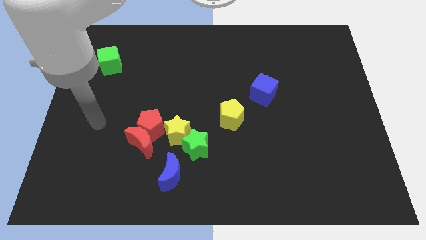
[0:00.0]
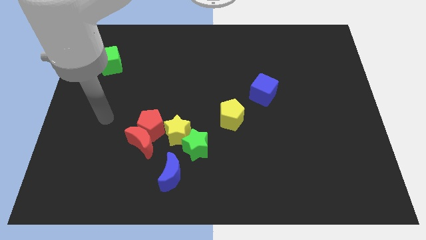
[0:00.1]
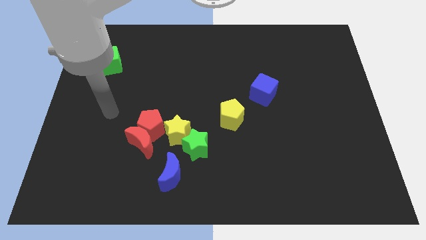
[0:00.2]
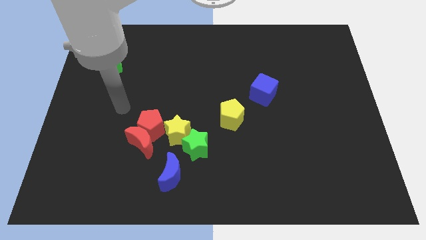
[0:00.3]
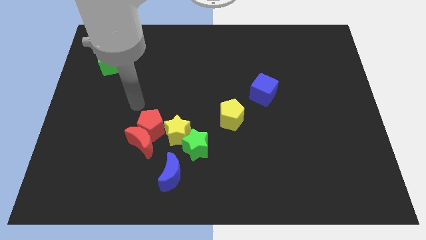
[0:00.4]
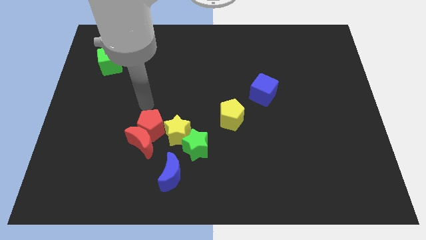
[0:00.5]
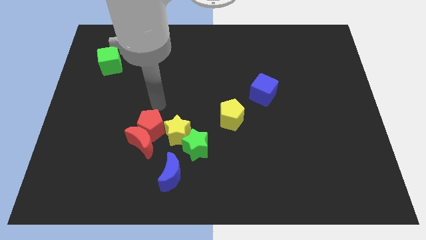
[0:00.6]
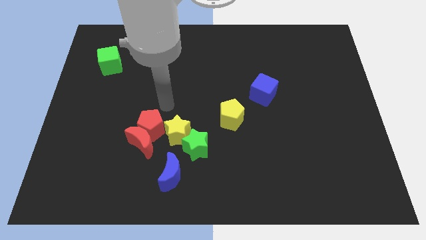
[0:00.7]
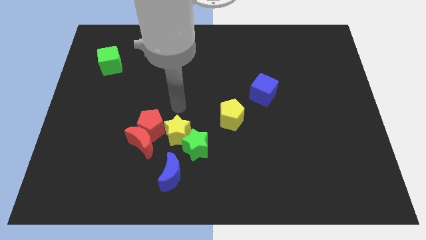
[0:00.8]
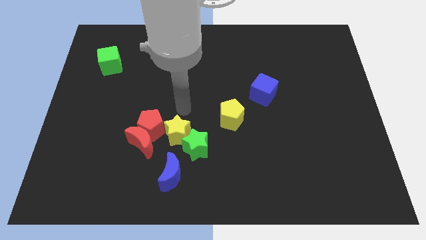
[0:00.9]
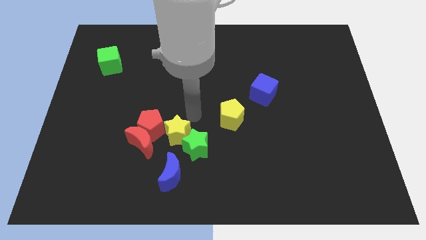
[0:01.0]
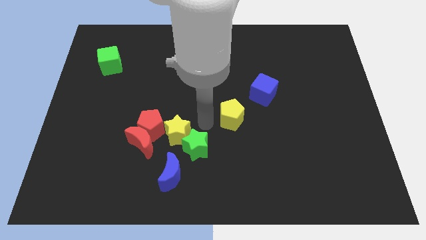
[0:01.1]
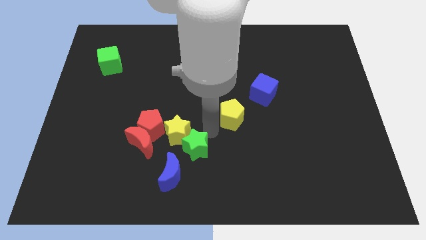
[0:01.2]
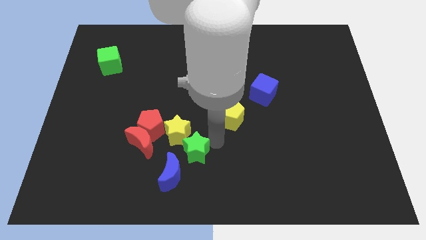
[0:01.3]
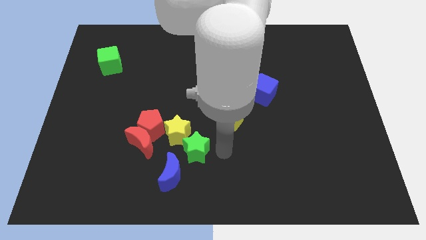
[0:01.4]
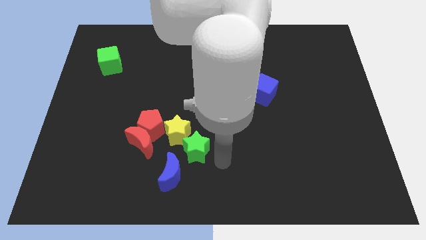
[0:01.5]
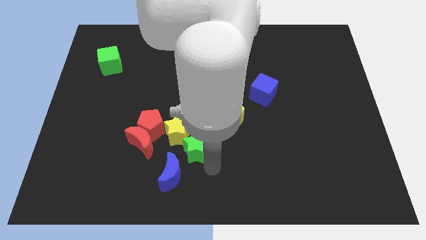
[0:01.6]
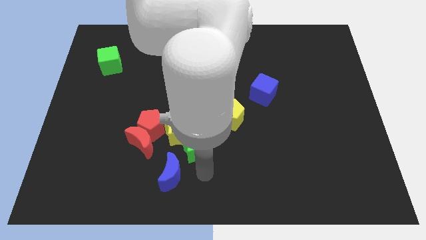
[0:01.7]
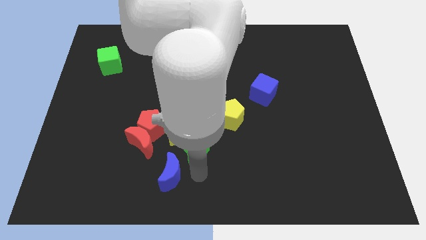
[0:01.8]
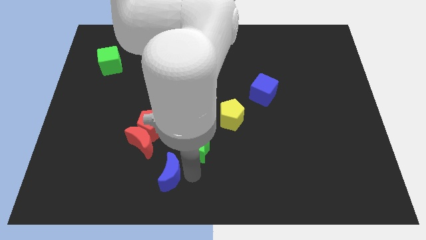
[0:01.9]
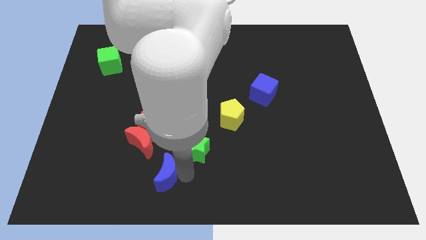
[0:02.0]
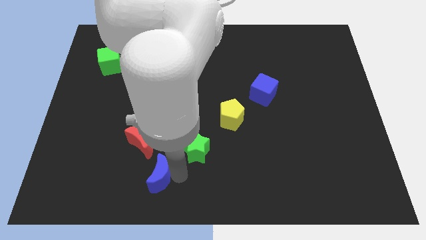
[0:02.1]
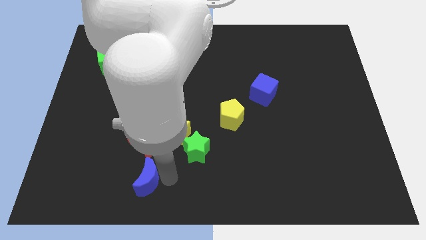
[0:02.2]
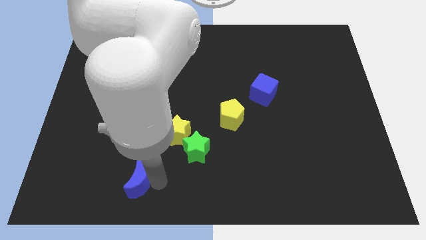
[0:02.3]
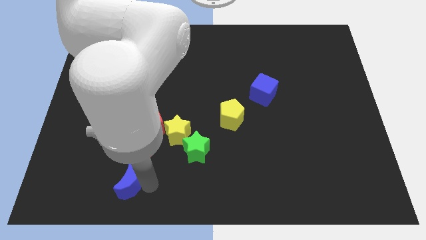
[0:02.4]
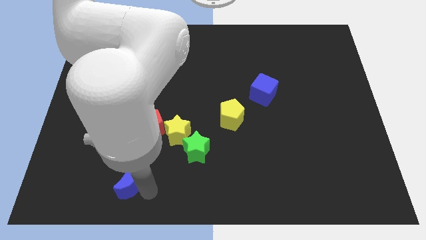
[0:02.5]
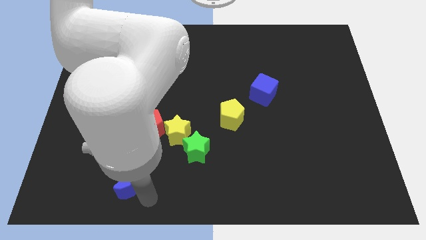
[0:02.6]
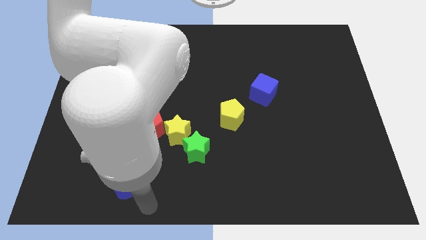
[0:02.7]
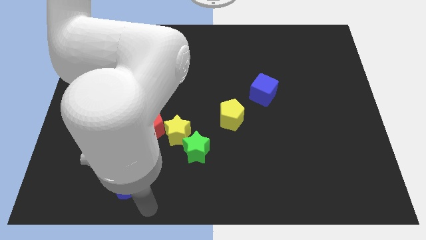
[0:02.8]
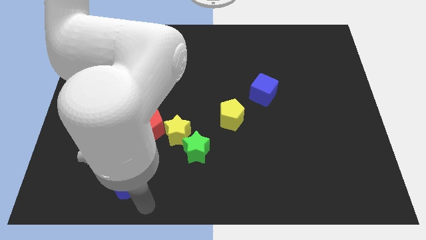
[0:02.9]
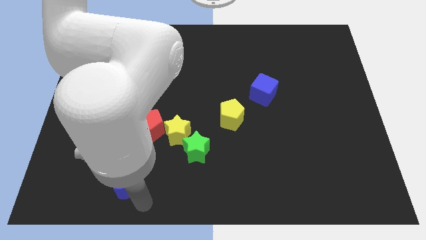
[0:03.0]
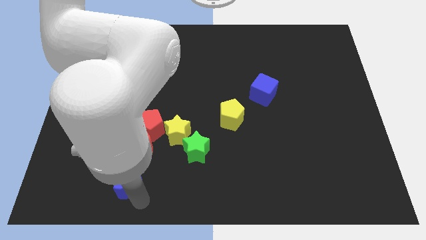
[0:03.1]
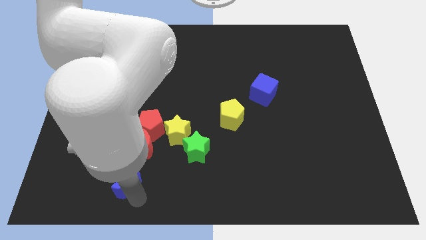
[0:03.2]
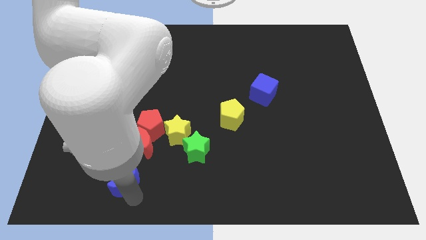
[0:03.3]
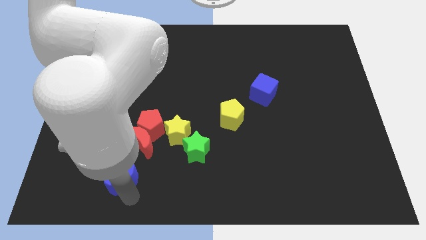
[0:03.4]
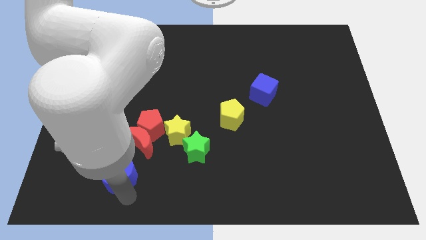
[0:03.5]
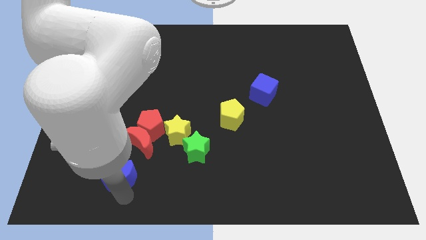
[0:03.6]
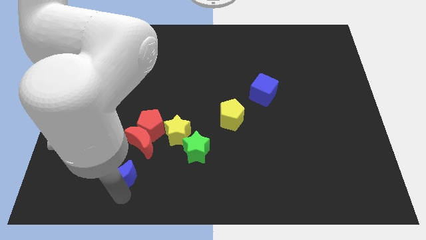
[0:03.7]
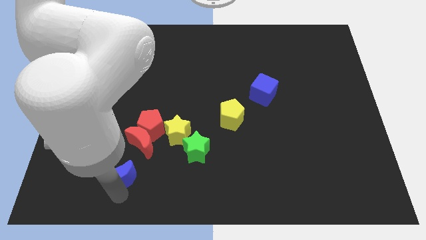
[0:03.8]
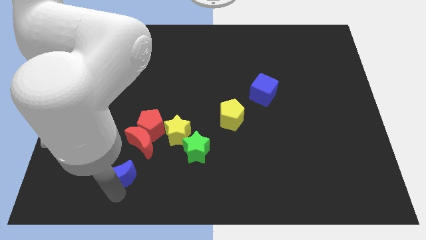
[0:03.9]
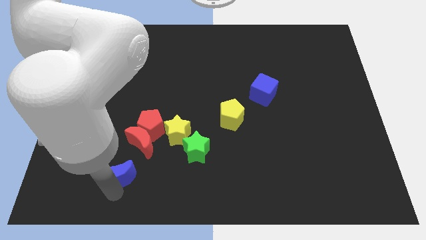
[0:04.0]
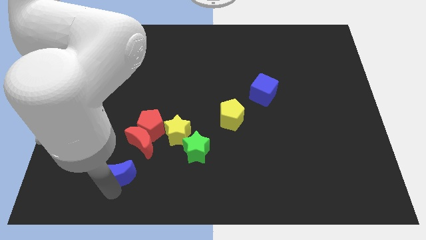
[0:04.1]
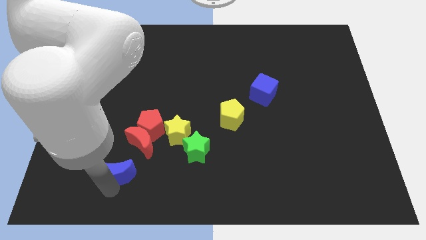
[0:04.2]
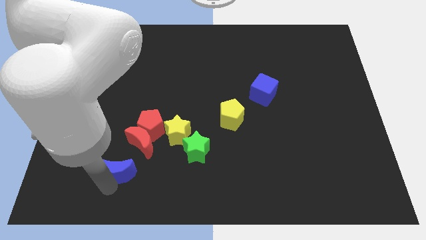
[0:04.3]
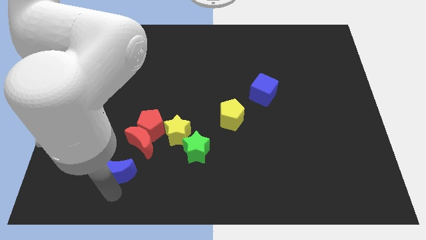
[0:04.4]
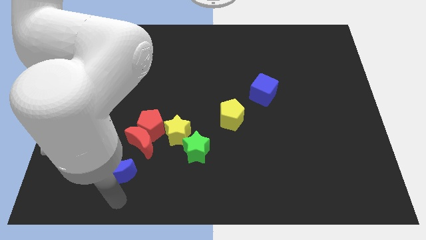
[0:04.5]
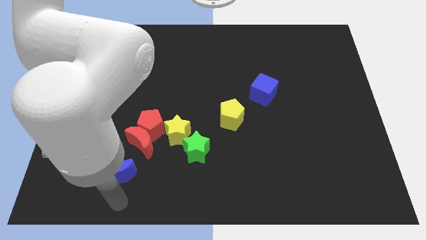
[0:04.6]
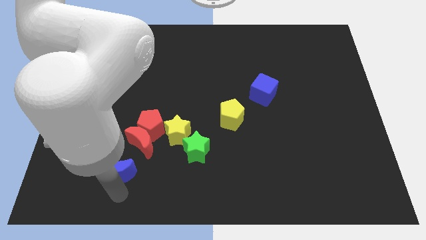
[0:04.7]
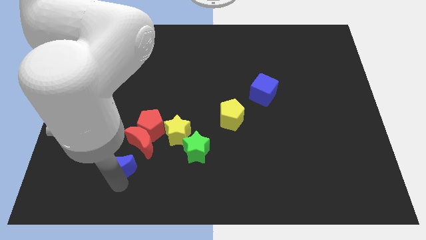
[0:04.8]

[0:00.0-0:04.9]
move the blue moon somewhat upwards and to the left

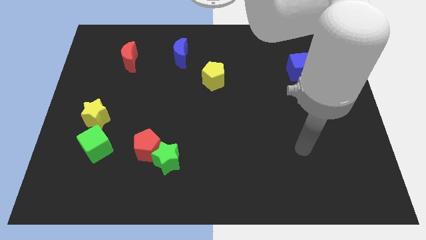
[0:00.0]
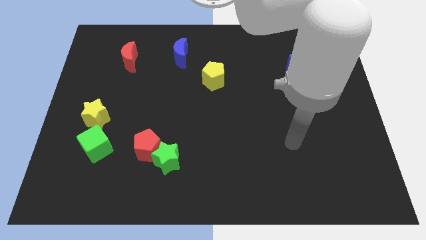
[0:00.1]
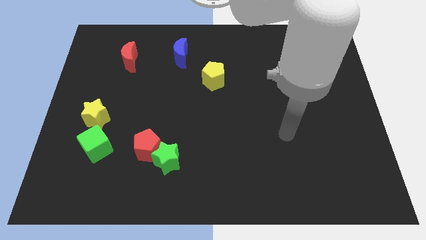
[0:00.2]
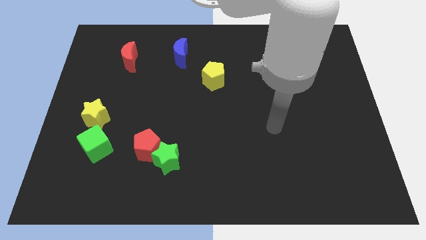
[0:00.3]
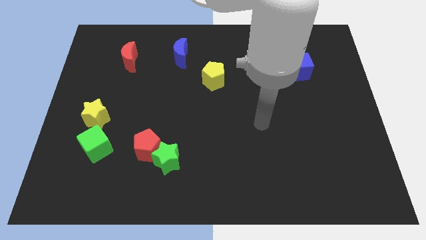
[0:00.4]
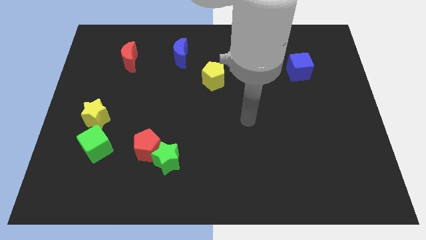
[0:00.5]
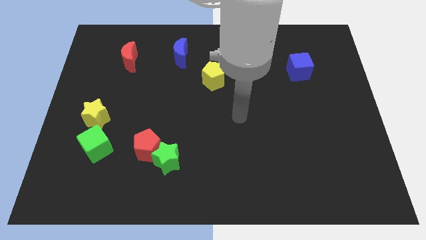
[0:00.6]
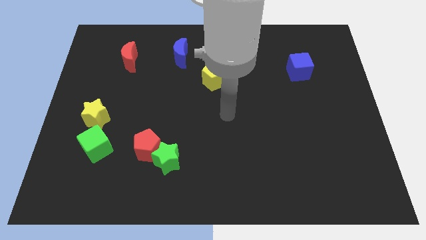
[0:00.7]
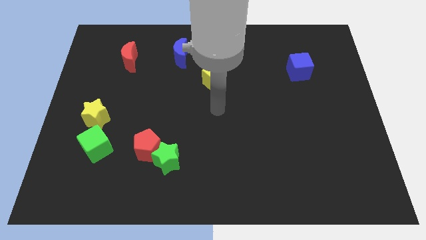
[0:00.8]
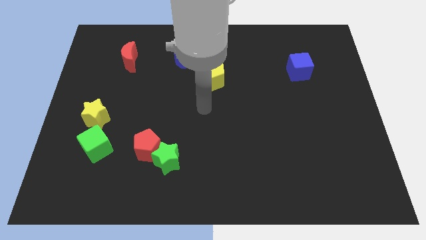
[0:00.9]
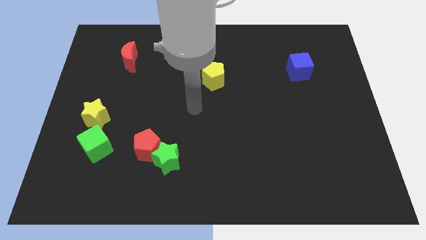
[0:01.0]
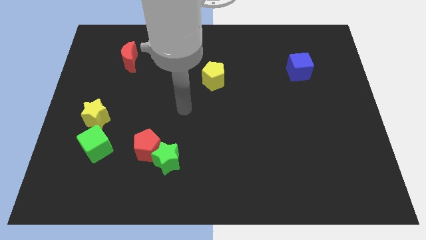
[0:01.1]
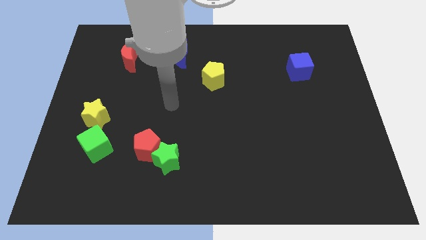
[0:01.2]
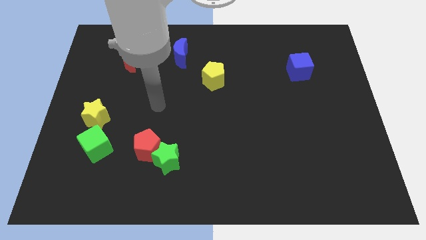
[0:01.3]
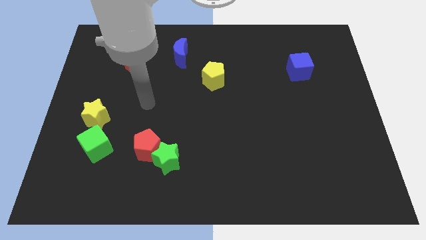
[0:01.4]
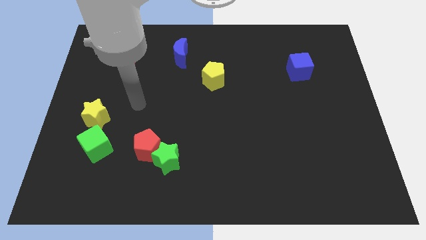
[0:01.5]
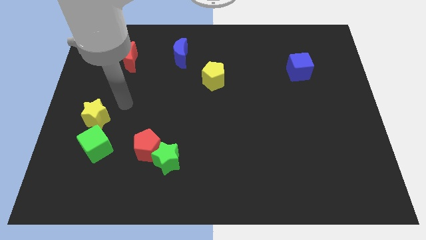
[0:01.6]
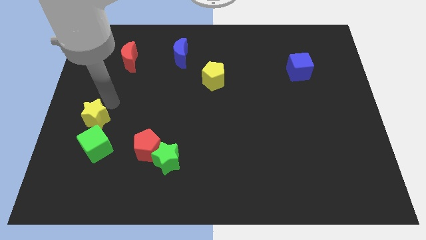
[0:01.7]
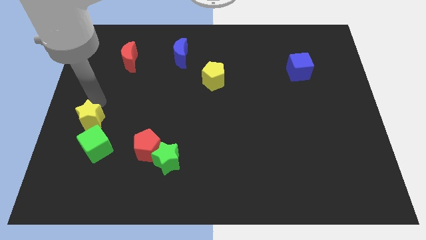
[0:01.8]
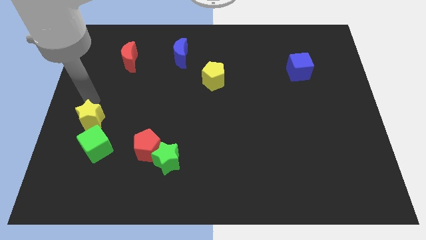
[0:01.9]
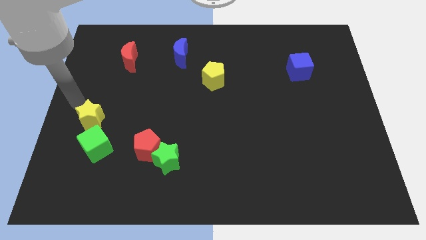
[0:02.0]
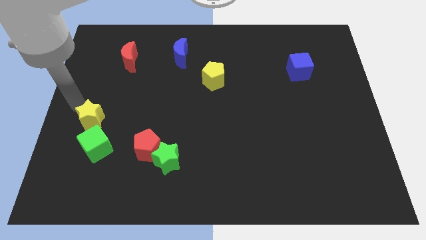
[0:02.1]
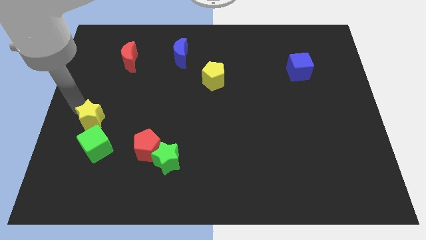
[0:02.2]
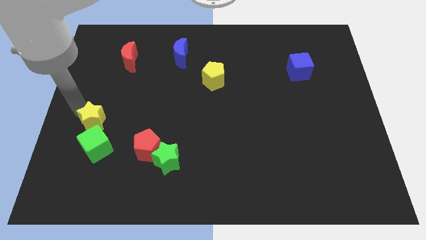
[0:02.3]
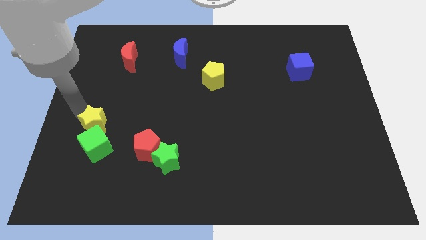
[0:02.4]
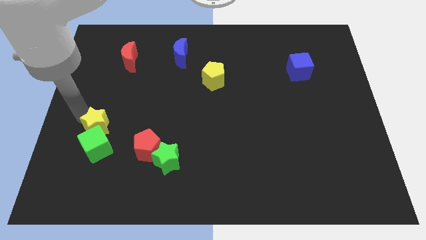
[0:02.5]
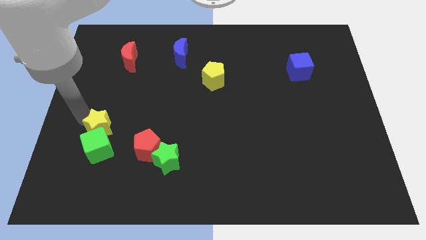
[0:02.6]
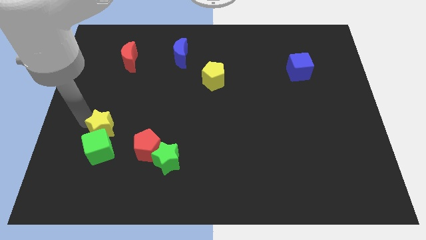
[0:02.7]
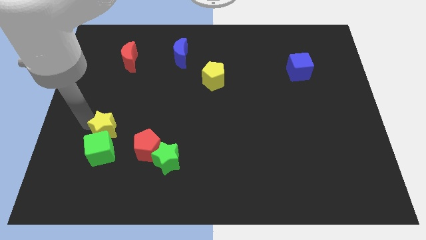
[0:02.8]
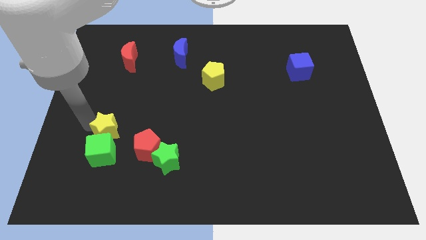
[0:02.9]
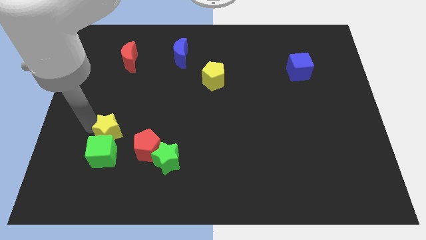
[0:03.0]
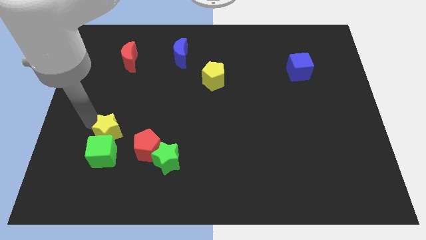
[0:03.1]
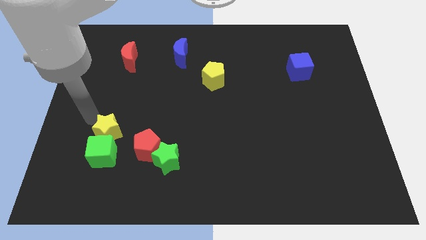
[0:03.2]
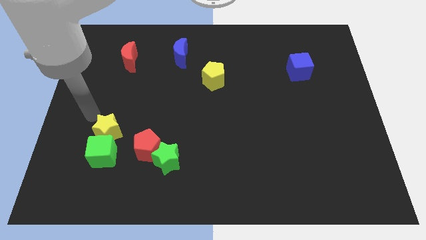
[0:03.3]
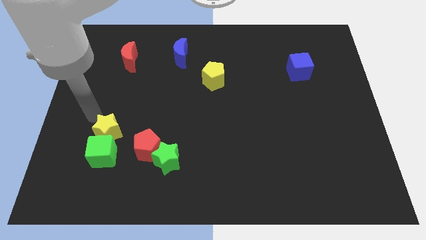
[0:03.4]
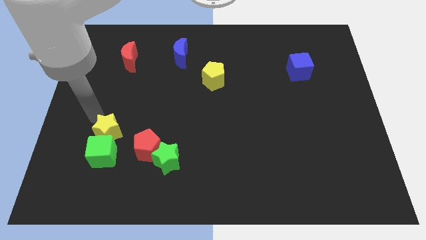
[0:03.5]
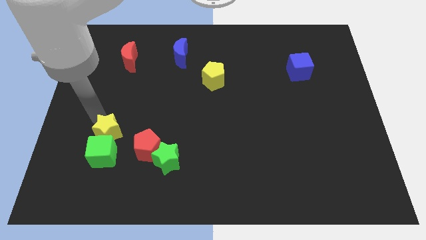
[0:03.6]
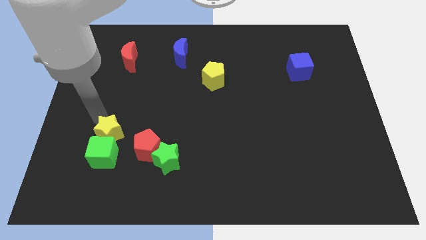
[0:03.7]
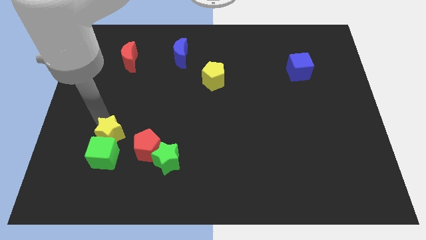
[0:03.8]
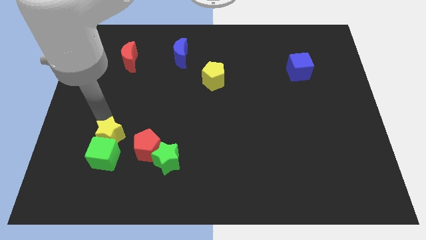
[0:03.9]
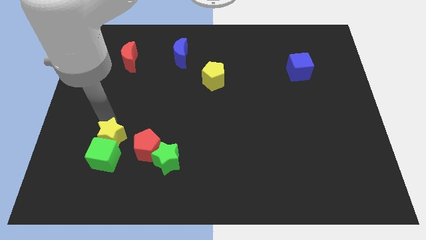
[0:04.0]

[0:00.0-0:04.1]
slide the yellow star a bit downwards and then to the right
